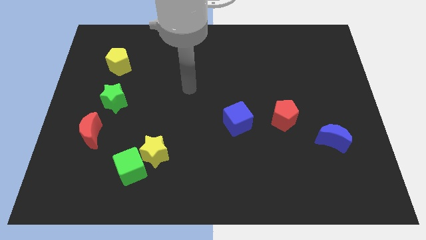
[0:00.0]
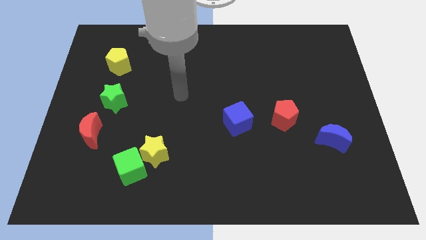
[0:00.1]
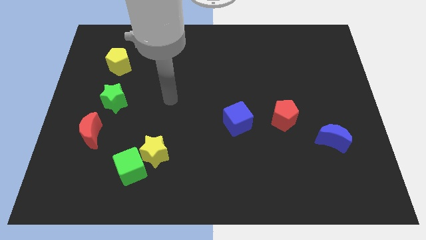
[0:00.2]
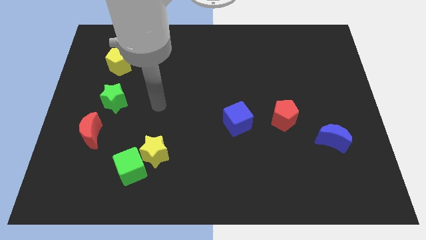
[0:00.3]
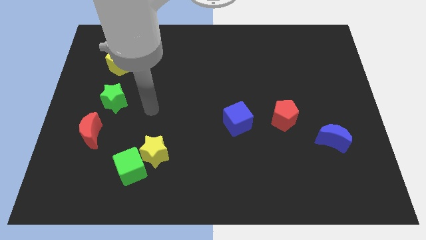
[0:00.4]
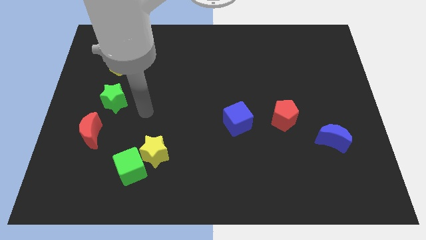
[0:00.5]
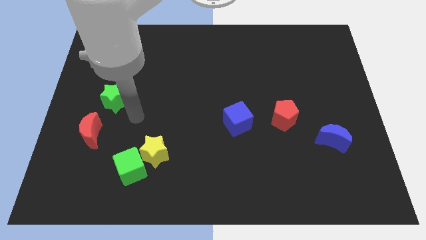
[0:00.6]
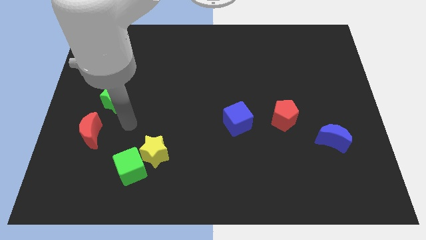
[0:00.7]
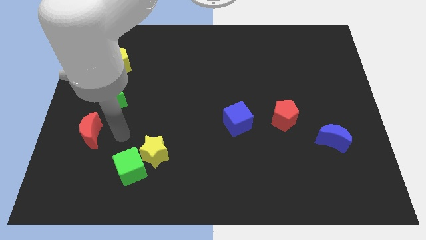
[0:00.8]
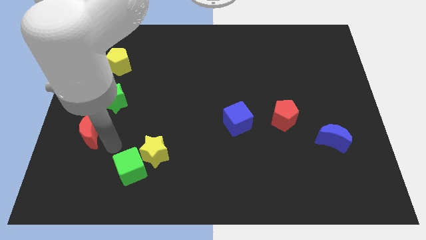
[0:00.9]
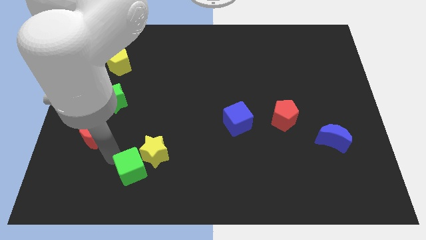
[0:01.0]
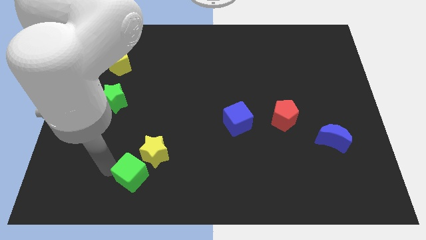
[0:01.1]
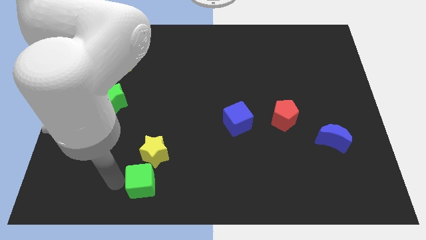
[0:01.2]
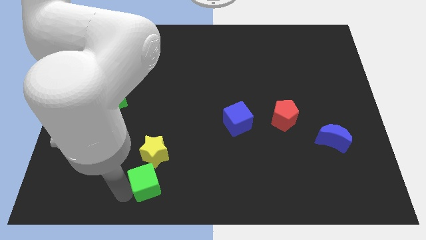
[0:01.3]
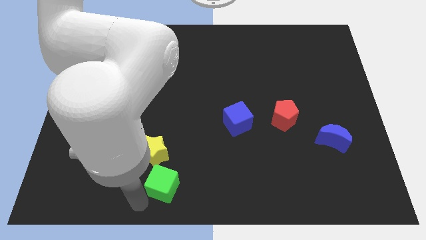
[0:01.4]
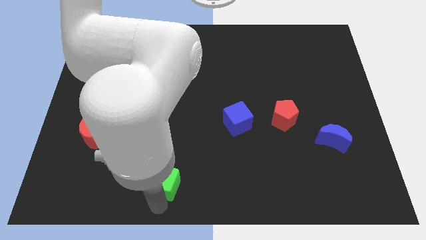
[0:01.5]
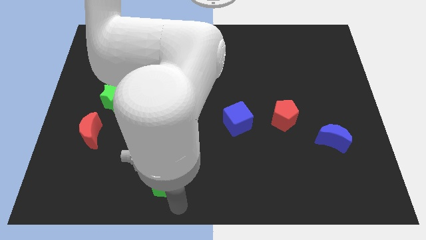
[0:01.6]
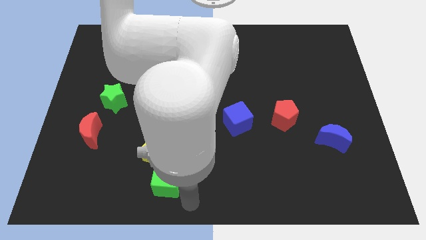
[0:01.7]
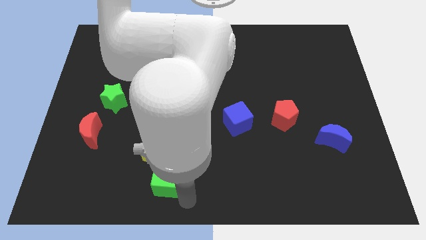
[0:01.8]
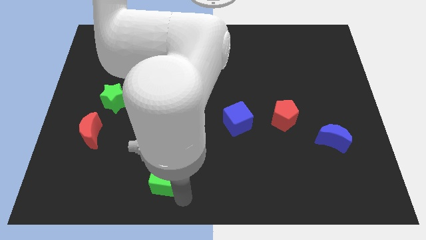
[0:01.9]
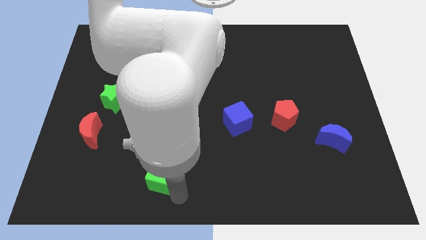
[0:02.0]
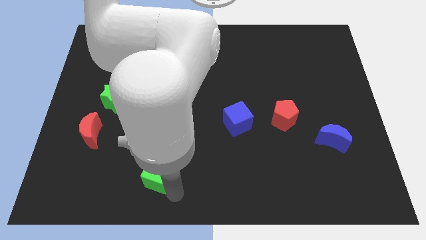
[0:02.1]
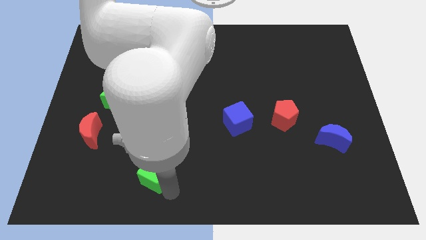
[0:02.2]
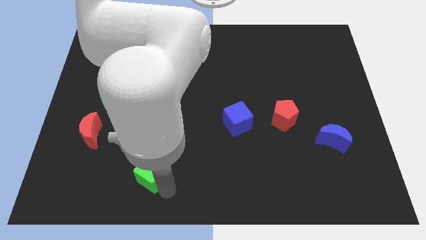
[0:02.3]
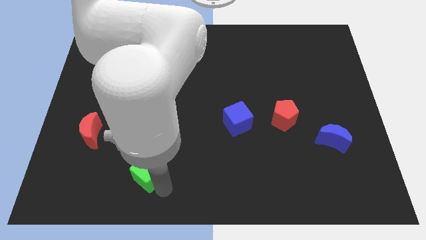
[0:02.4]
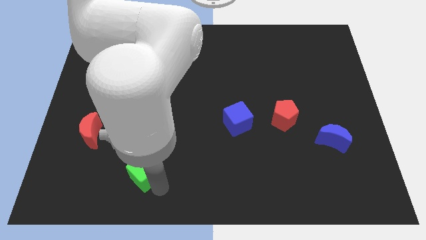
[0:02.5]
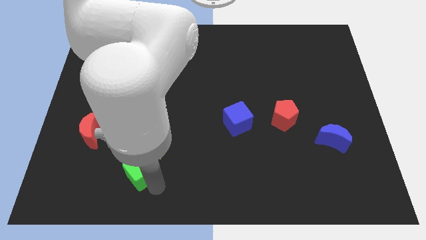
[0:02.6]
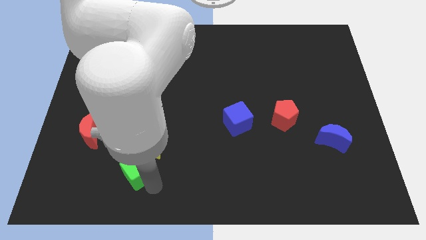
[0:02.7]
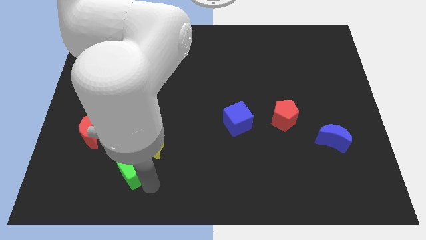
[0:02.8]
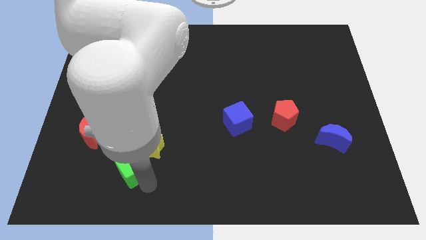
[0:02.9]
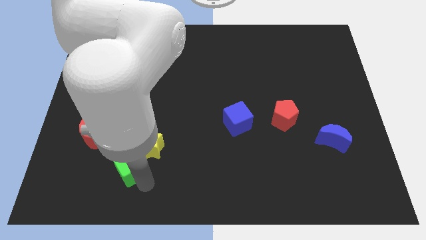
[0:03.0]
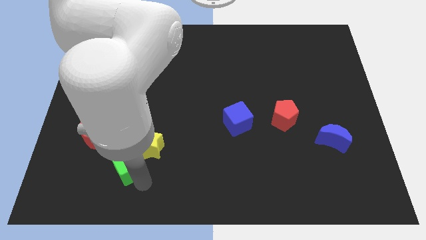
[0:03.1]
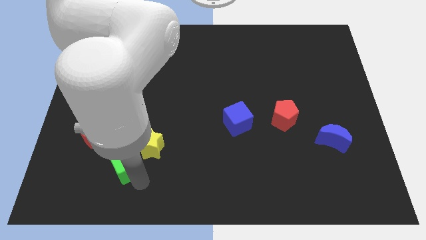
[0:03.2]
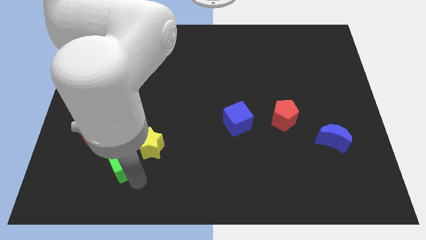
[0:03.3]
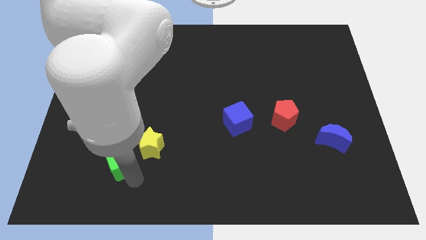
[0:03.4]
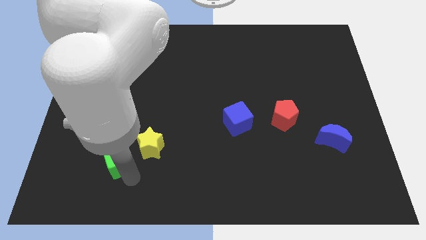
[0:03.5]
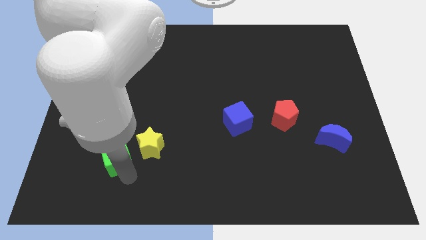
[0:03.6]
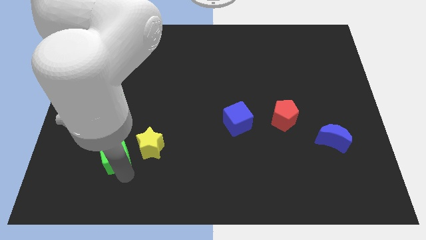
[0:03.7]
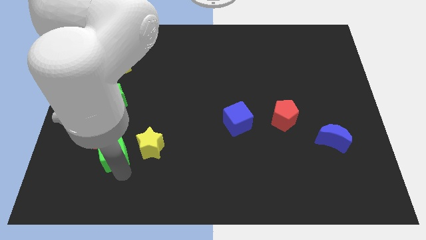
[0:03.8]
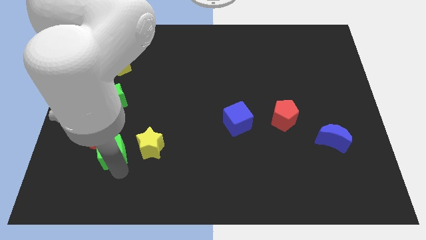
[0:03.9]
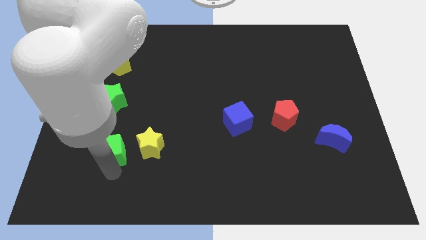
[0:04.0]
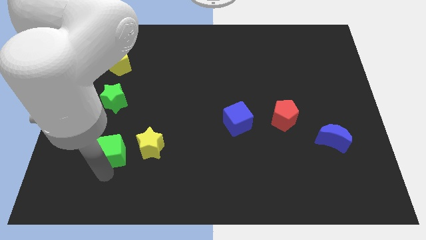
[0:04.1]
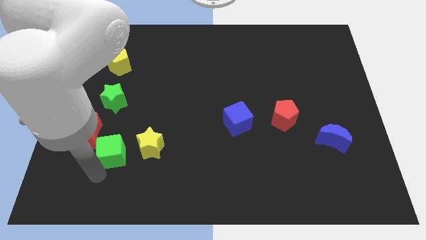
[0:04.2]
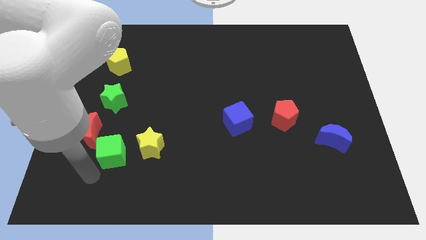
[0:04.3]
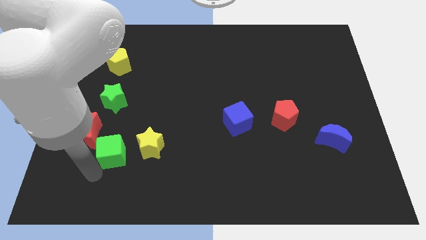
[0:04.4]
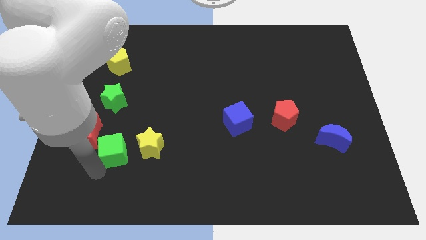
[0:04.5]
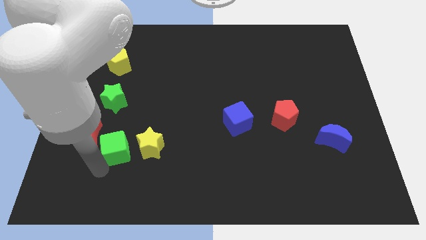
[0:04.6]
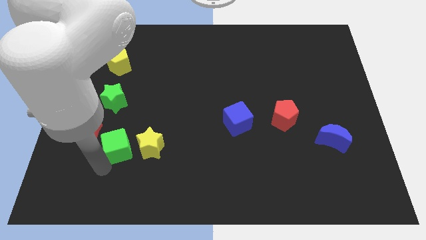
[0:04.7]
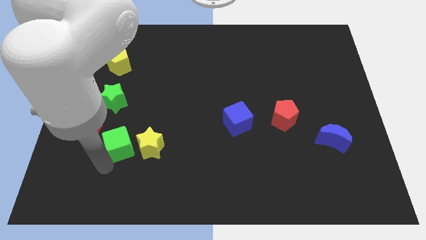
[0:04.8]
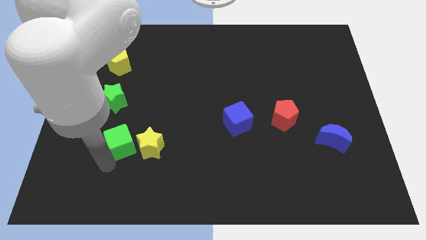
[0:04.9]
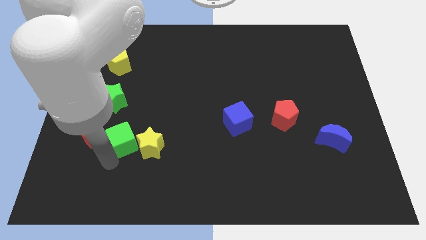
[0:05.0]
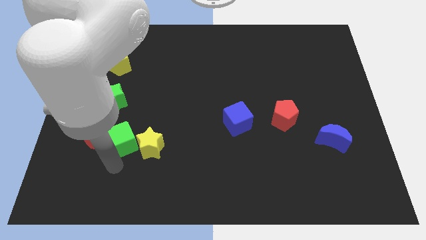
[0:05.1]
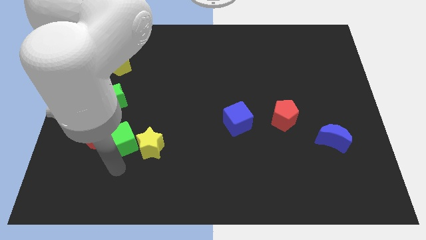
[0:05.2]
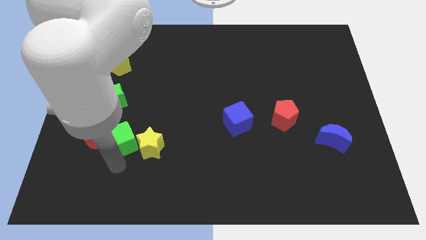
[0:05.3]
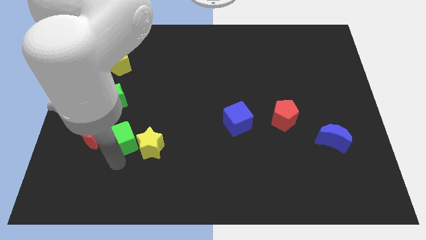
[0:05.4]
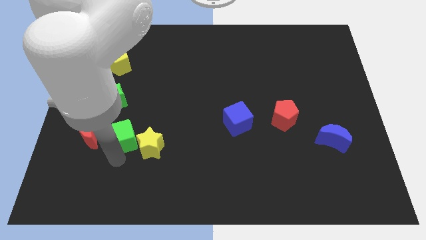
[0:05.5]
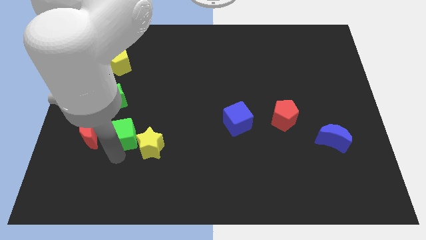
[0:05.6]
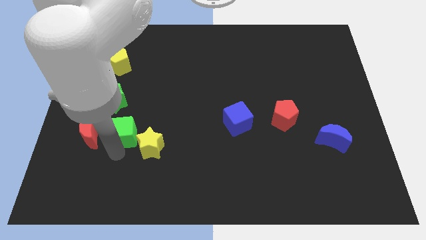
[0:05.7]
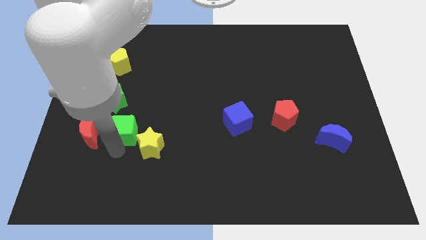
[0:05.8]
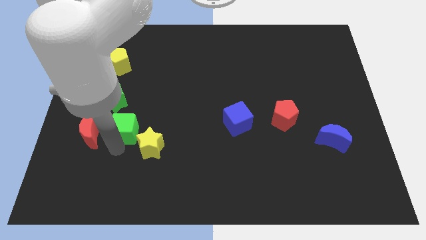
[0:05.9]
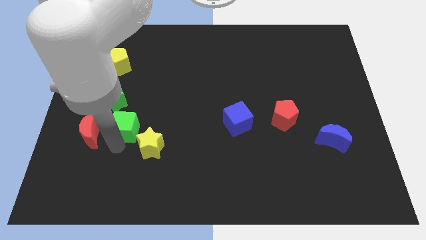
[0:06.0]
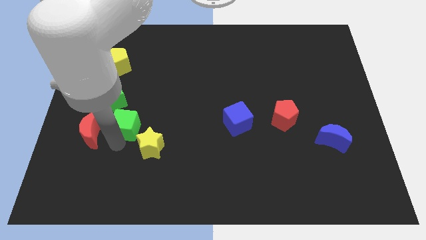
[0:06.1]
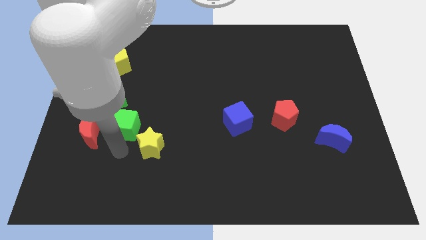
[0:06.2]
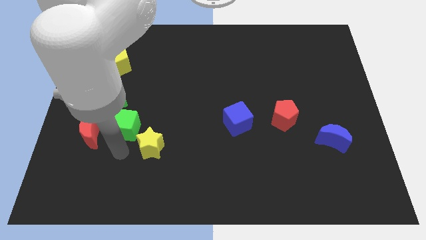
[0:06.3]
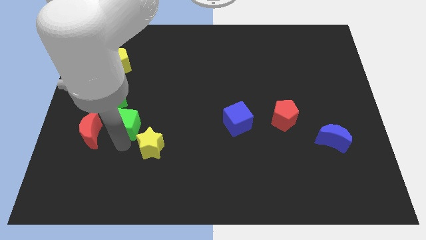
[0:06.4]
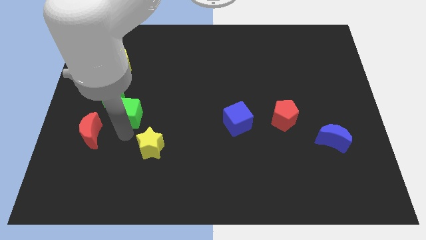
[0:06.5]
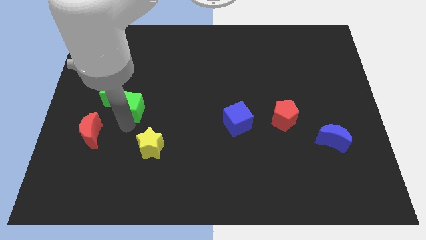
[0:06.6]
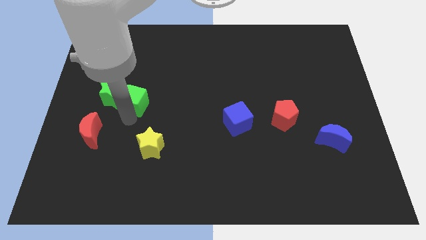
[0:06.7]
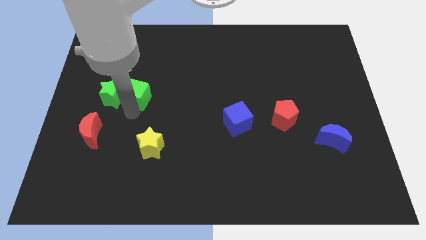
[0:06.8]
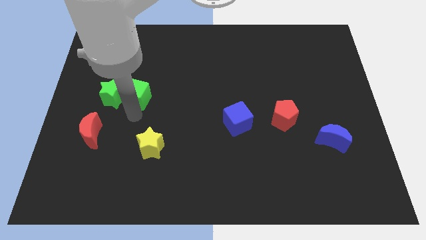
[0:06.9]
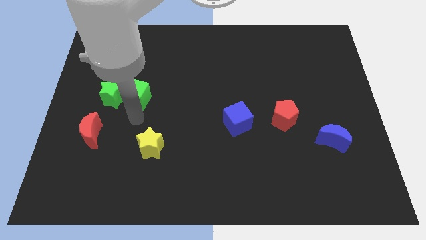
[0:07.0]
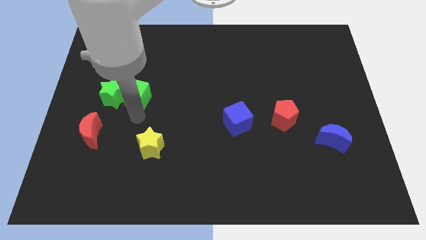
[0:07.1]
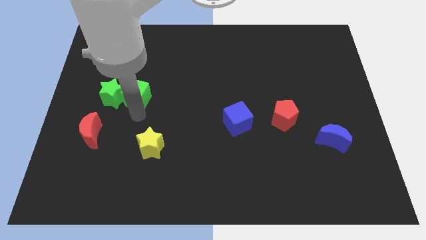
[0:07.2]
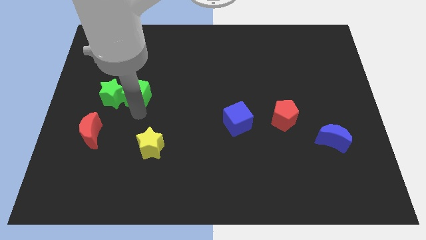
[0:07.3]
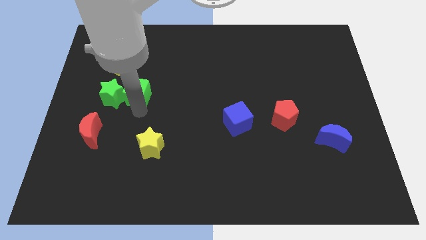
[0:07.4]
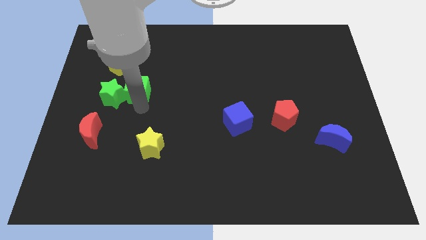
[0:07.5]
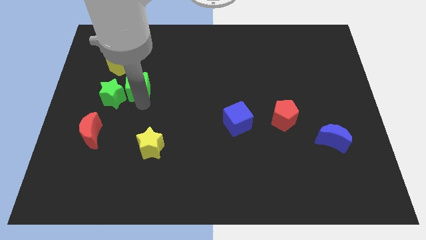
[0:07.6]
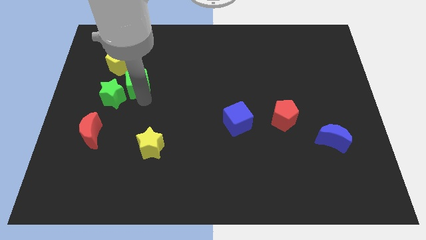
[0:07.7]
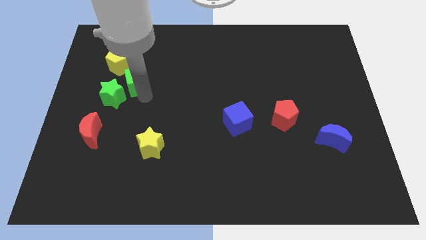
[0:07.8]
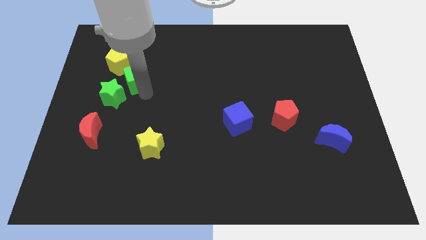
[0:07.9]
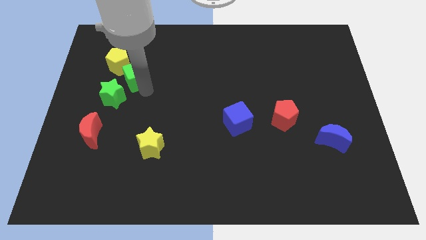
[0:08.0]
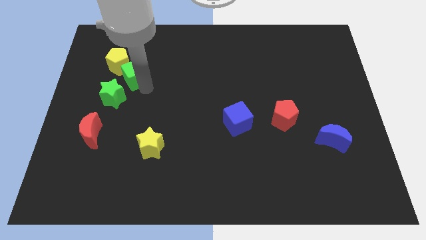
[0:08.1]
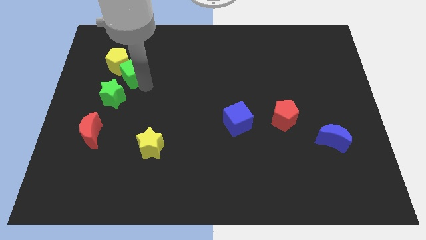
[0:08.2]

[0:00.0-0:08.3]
push the green cube towards the yellow pentagon
